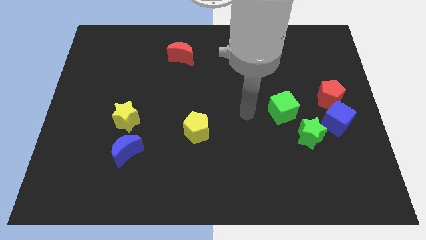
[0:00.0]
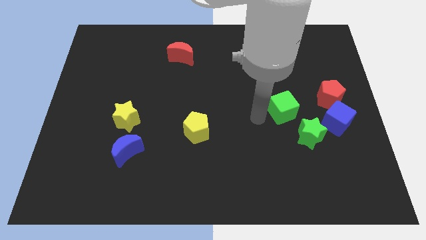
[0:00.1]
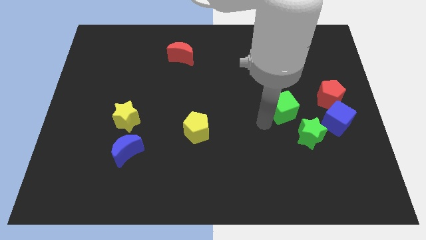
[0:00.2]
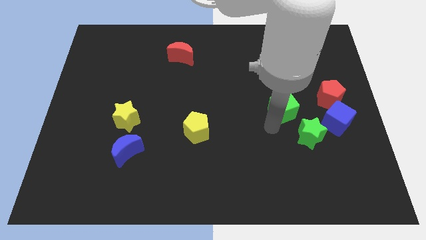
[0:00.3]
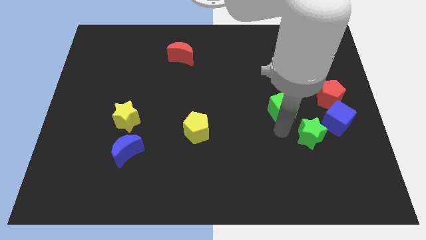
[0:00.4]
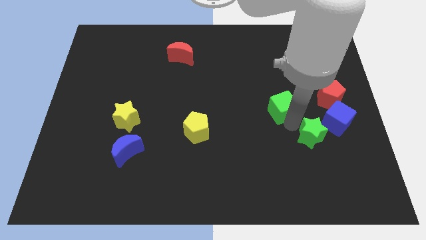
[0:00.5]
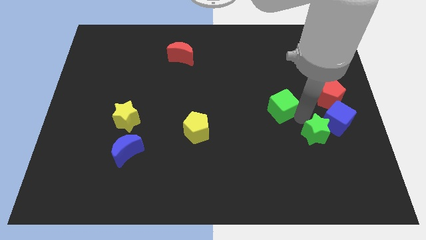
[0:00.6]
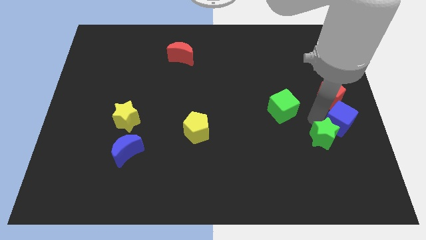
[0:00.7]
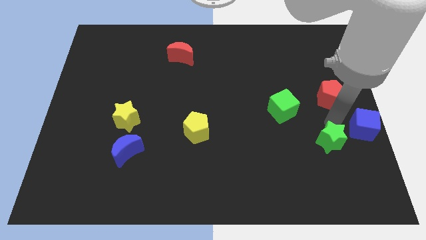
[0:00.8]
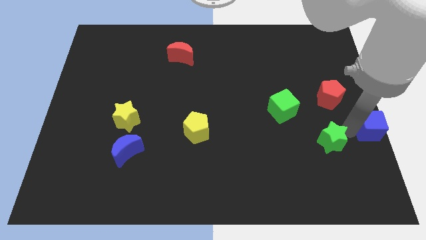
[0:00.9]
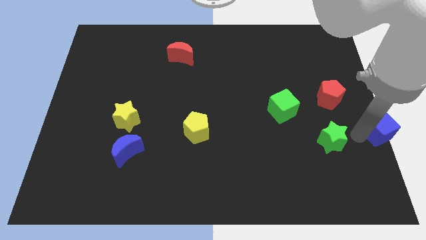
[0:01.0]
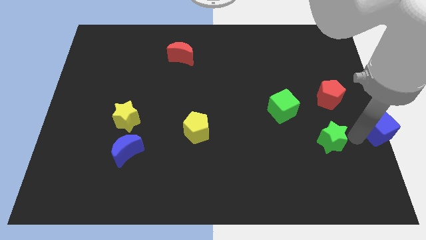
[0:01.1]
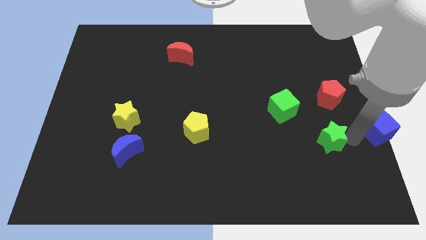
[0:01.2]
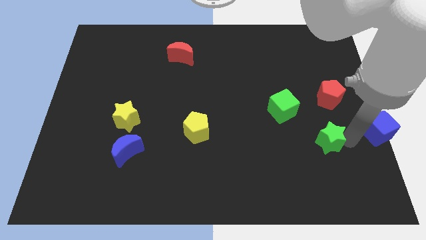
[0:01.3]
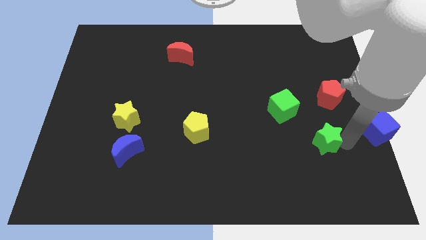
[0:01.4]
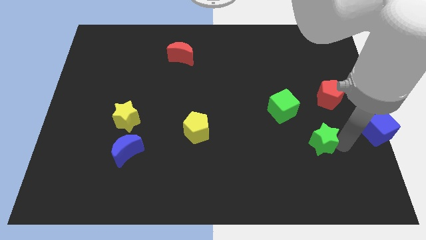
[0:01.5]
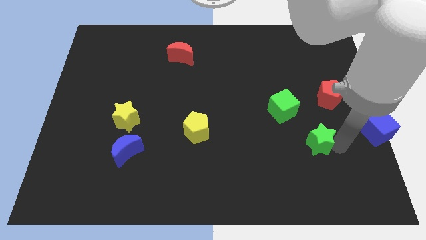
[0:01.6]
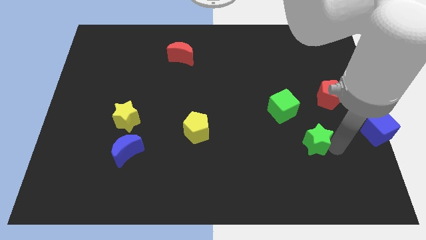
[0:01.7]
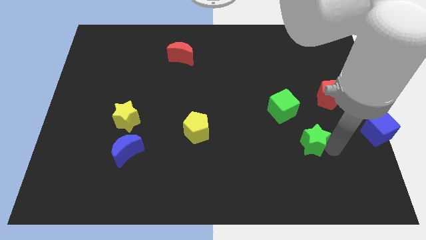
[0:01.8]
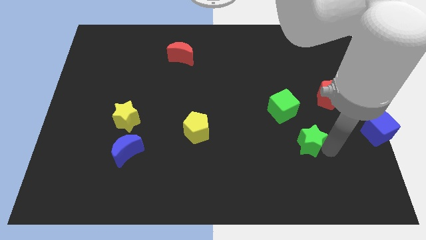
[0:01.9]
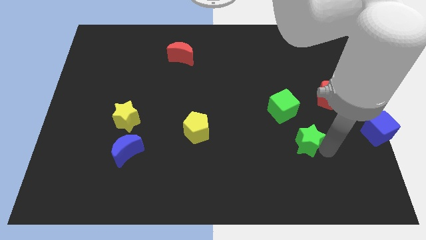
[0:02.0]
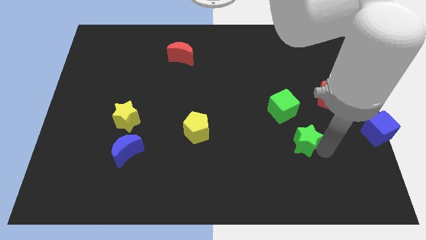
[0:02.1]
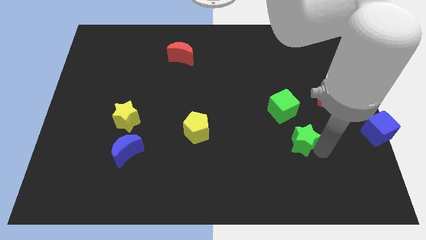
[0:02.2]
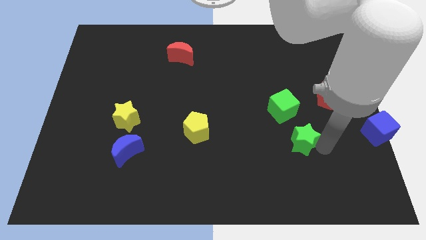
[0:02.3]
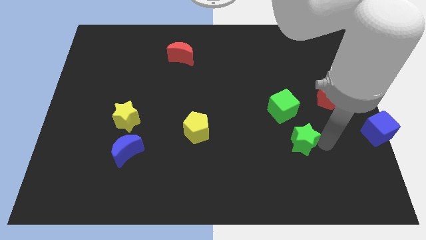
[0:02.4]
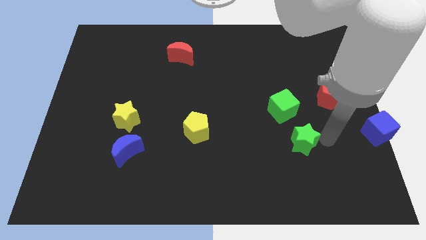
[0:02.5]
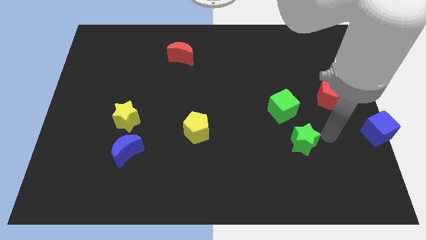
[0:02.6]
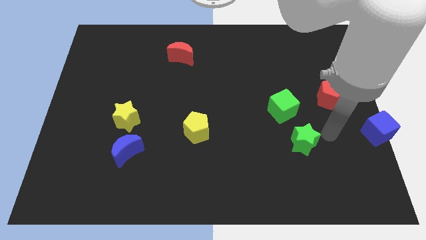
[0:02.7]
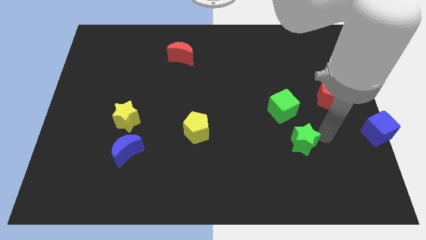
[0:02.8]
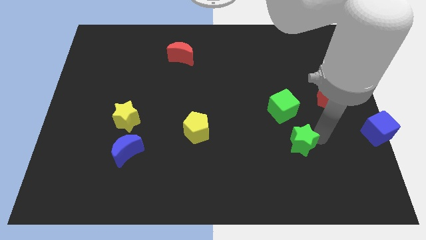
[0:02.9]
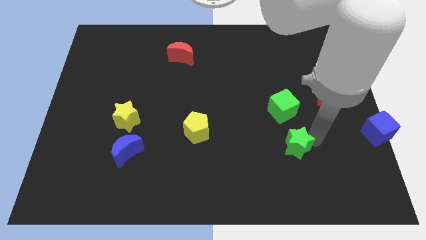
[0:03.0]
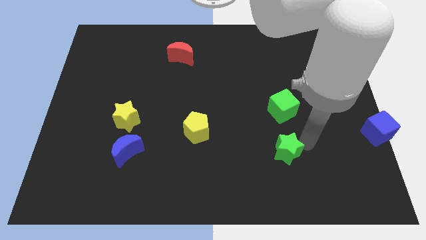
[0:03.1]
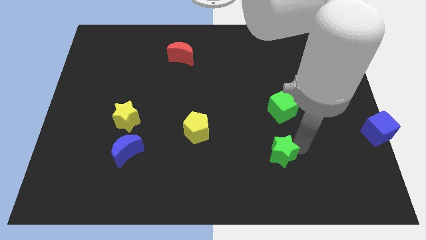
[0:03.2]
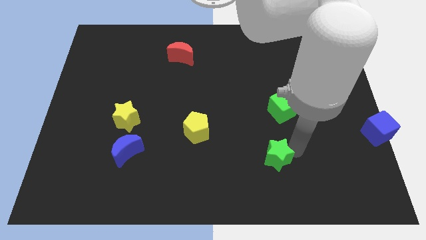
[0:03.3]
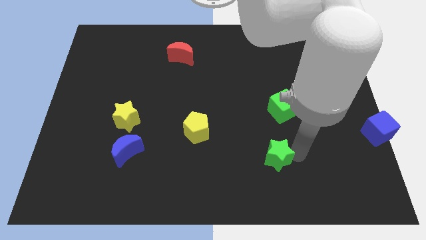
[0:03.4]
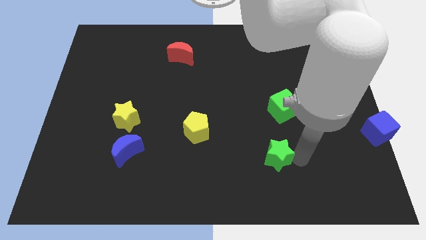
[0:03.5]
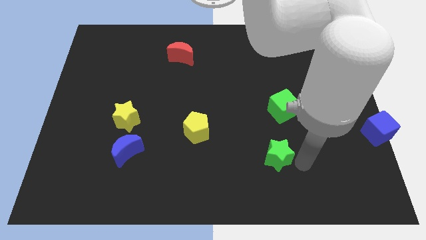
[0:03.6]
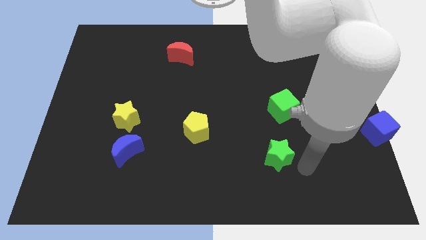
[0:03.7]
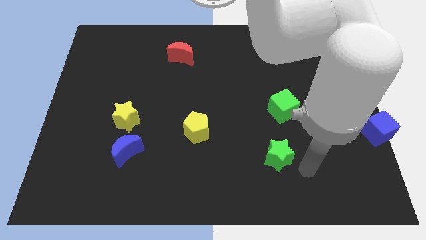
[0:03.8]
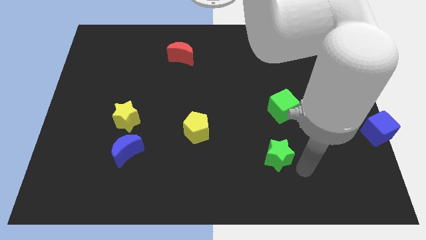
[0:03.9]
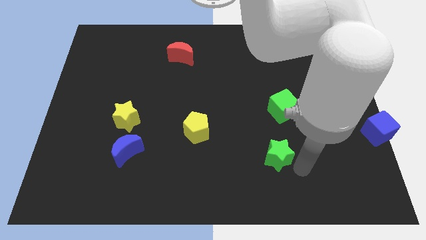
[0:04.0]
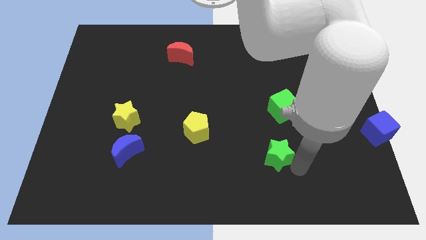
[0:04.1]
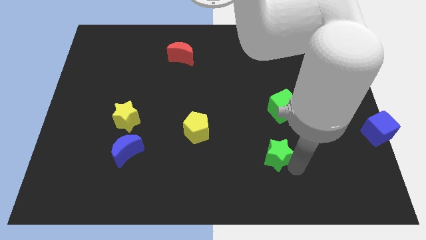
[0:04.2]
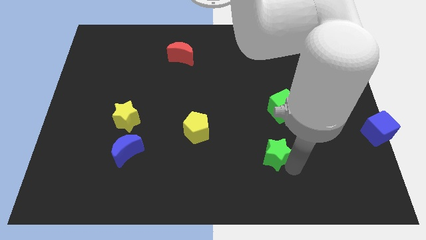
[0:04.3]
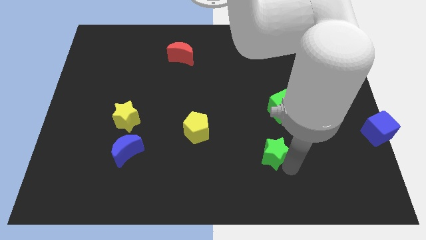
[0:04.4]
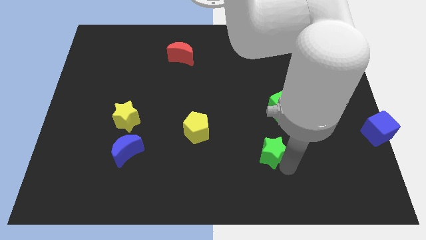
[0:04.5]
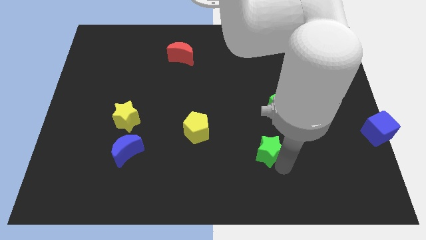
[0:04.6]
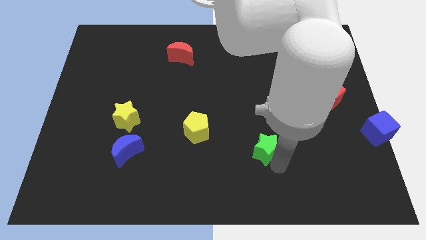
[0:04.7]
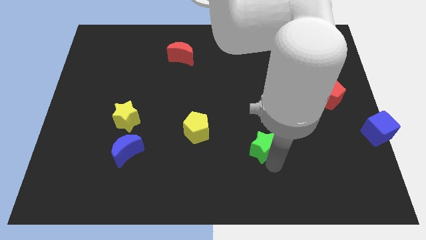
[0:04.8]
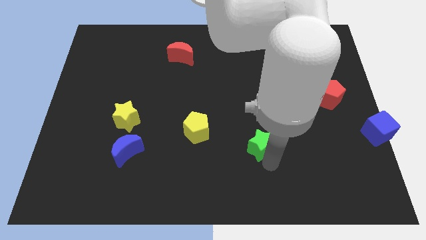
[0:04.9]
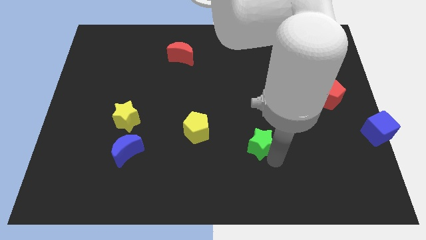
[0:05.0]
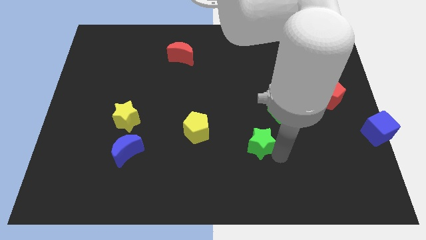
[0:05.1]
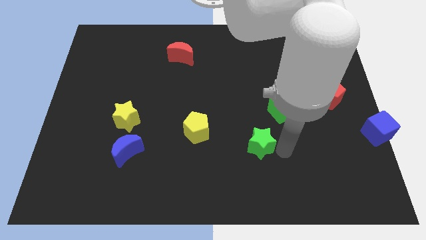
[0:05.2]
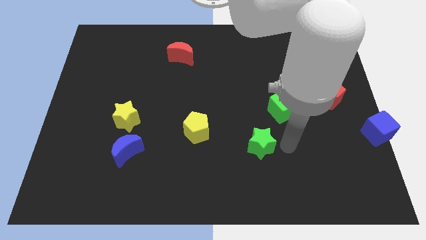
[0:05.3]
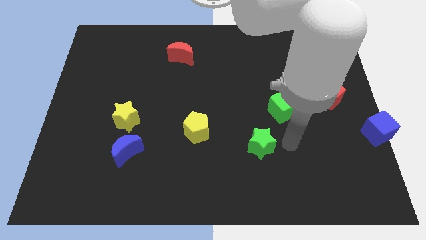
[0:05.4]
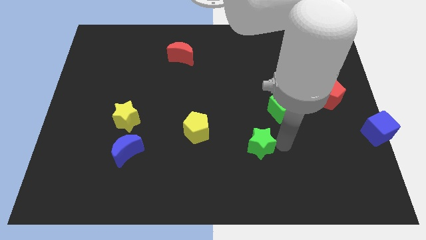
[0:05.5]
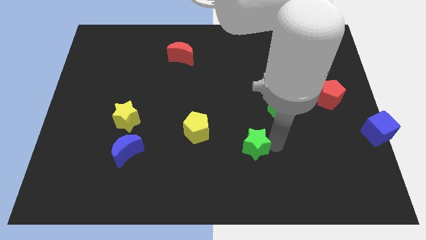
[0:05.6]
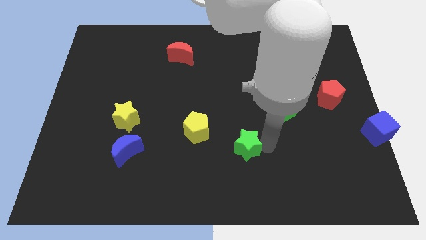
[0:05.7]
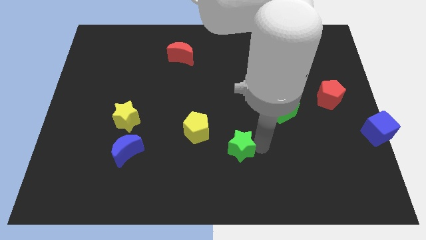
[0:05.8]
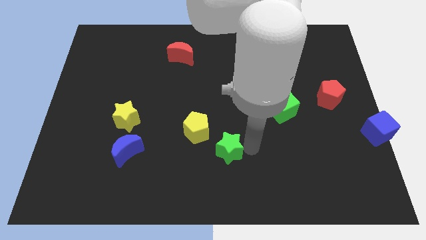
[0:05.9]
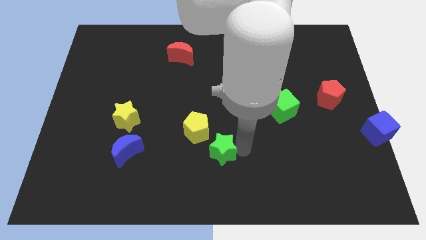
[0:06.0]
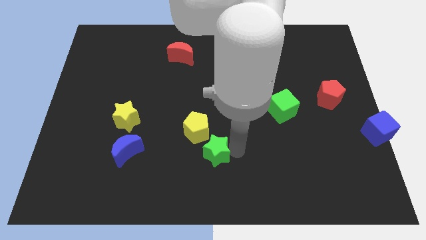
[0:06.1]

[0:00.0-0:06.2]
push the green star left

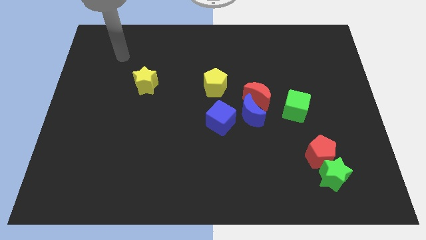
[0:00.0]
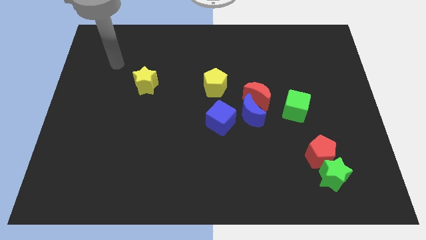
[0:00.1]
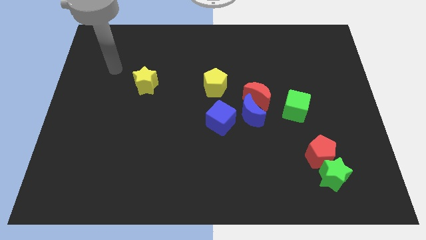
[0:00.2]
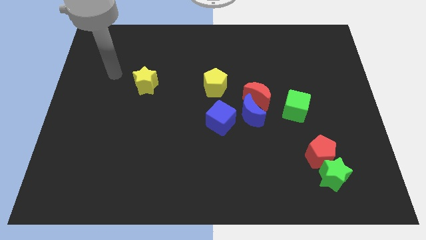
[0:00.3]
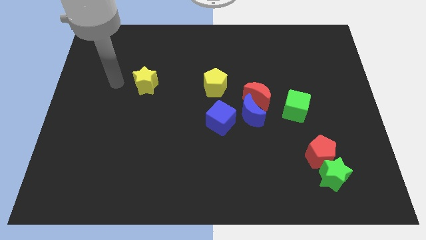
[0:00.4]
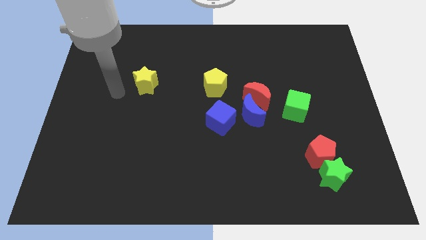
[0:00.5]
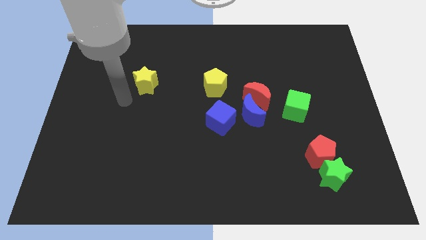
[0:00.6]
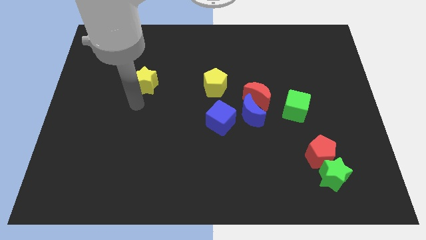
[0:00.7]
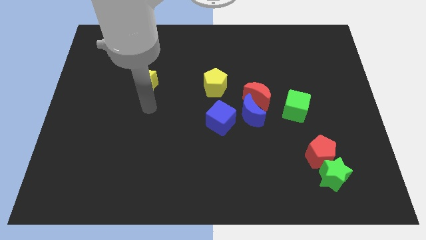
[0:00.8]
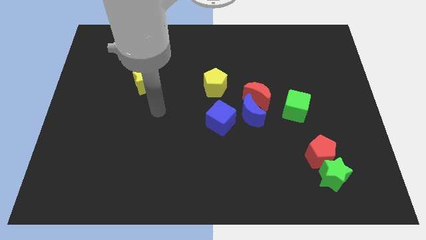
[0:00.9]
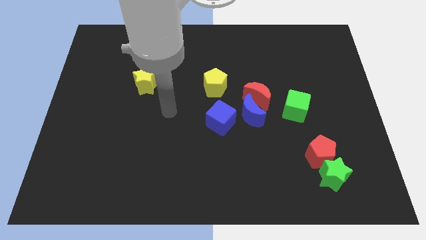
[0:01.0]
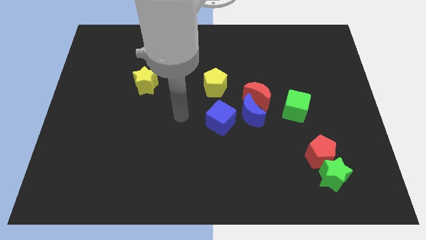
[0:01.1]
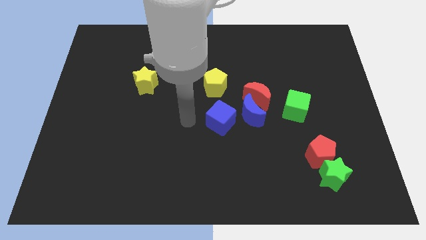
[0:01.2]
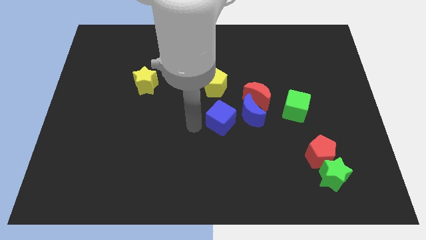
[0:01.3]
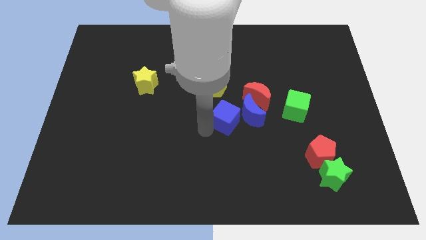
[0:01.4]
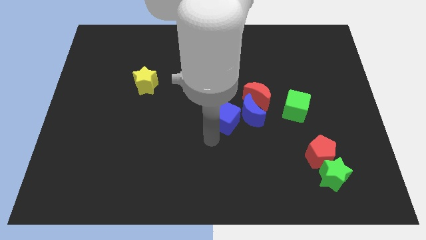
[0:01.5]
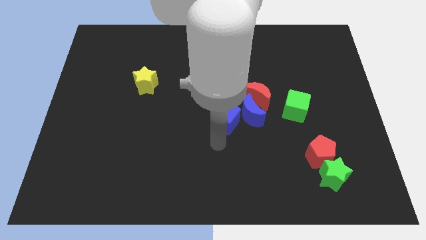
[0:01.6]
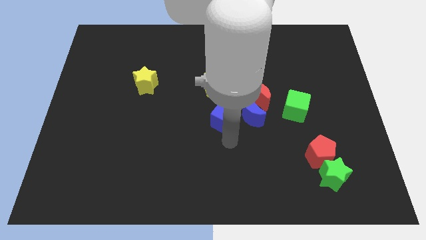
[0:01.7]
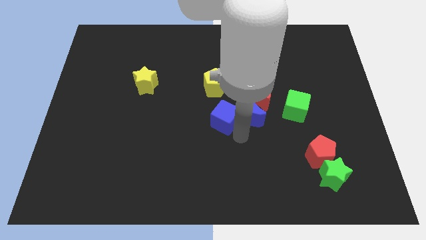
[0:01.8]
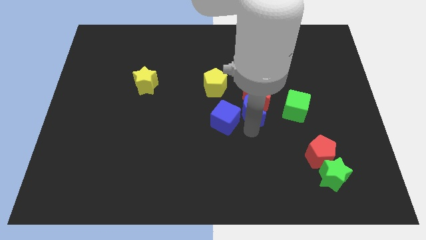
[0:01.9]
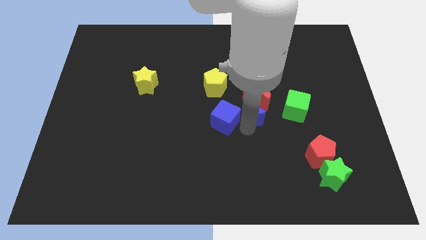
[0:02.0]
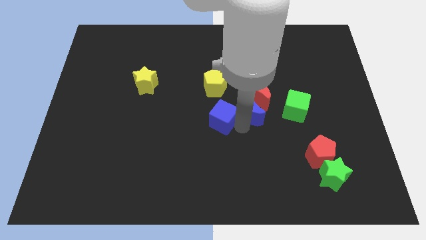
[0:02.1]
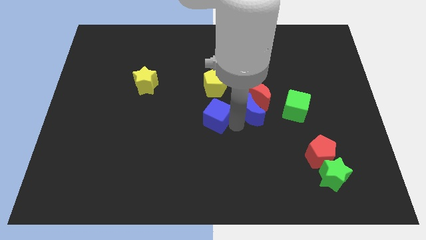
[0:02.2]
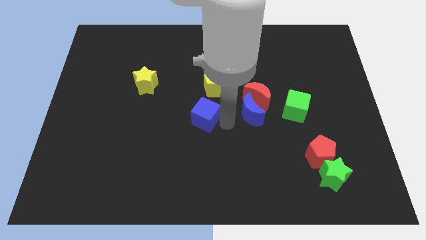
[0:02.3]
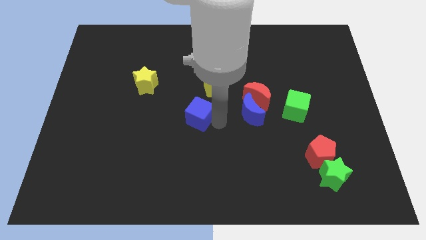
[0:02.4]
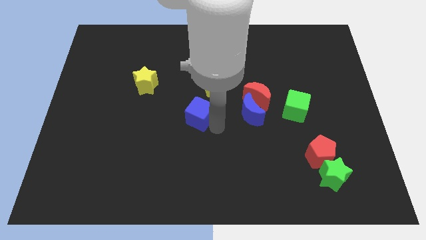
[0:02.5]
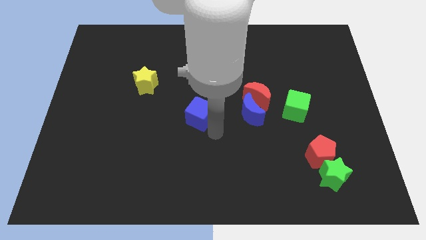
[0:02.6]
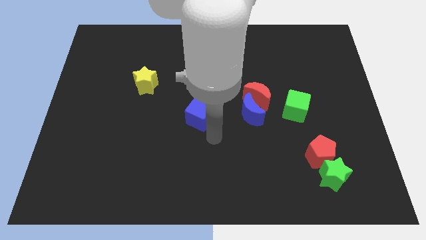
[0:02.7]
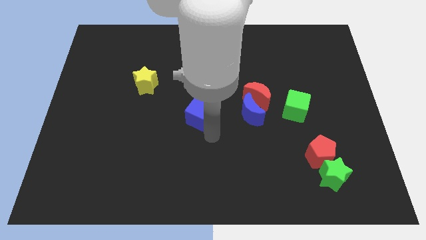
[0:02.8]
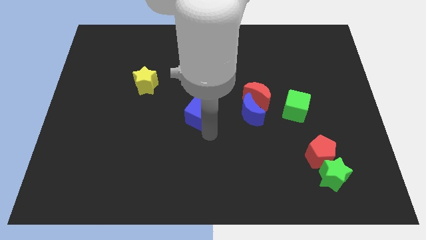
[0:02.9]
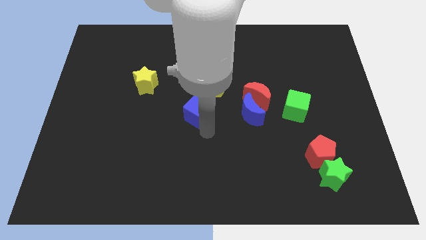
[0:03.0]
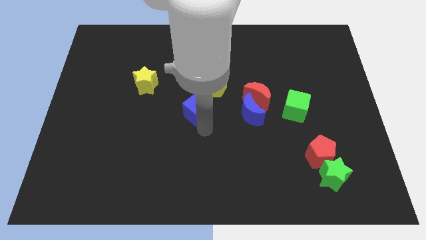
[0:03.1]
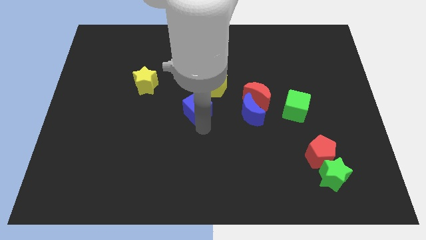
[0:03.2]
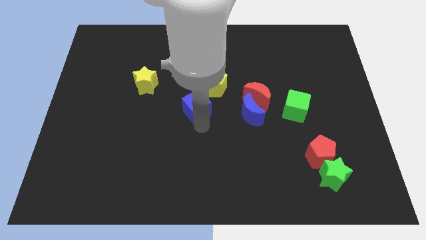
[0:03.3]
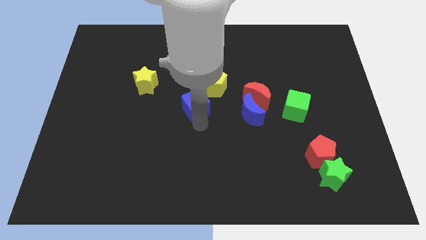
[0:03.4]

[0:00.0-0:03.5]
move the blue cube slightly upwards and left
